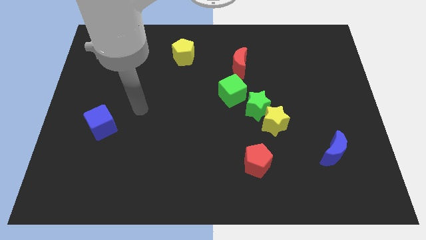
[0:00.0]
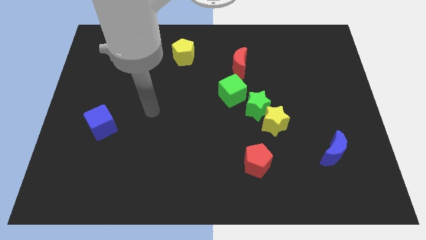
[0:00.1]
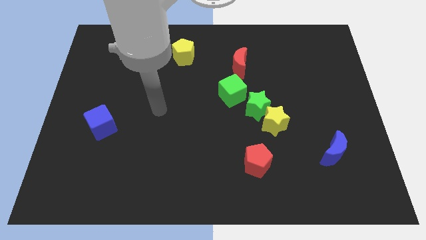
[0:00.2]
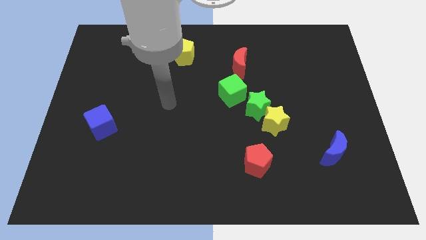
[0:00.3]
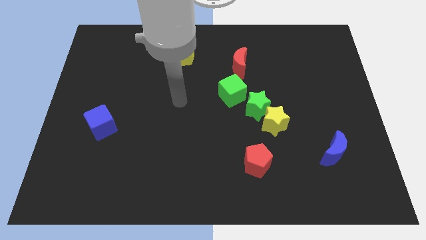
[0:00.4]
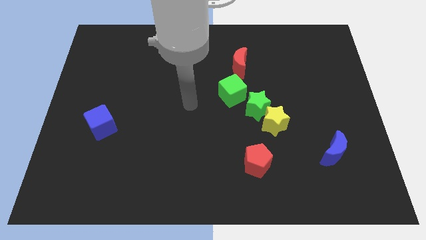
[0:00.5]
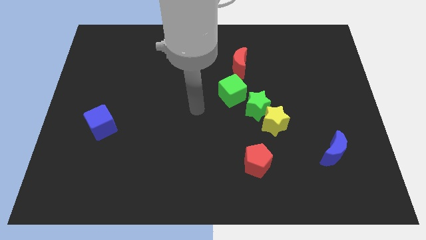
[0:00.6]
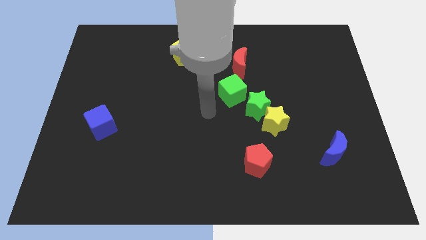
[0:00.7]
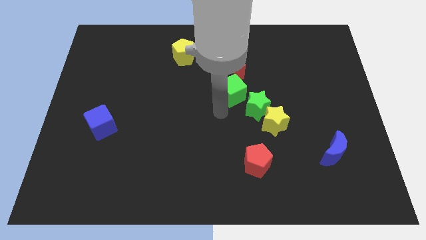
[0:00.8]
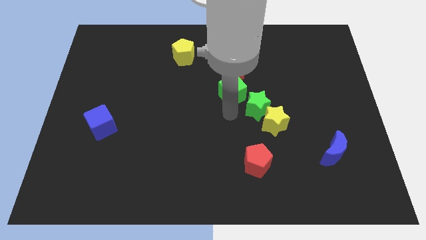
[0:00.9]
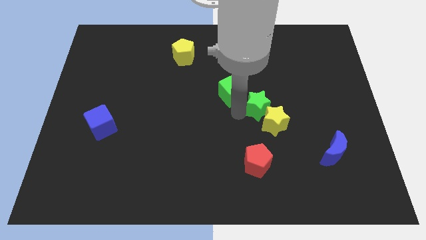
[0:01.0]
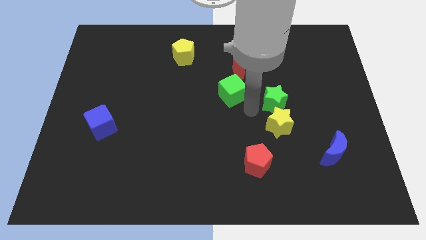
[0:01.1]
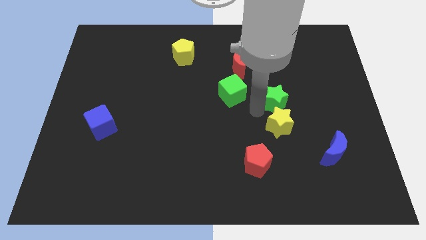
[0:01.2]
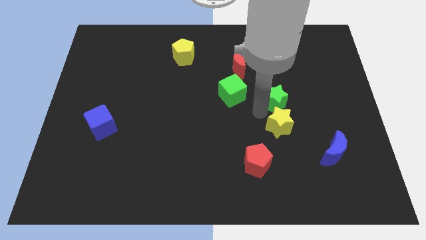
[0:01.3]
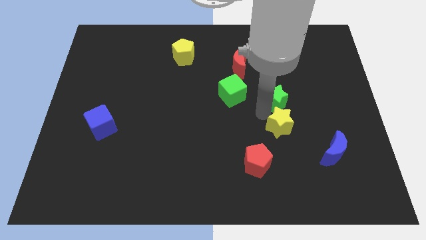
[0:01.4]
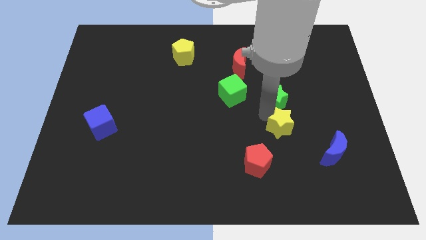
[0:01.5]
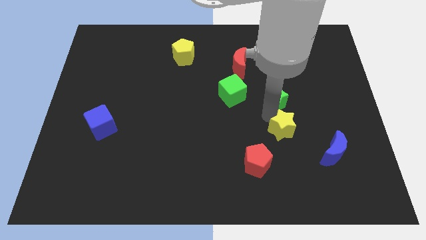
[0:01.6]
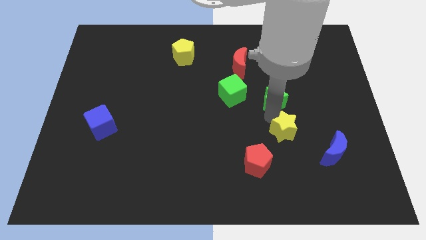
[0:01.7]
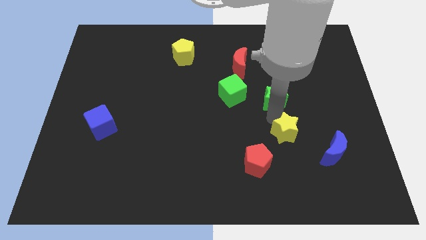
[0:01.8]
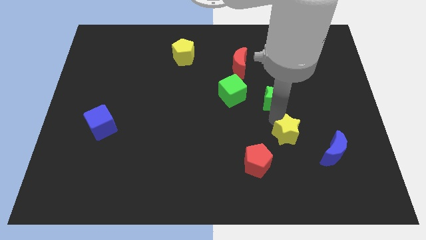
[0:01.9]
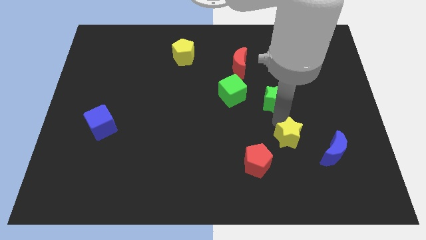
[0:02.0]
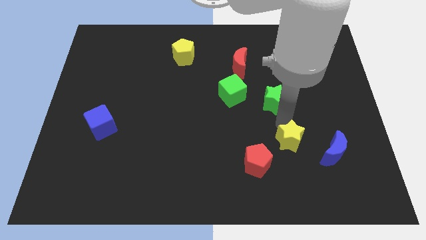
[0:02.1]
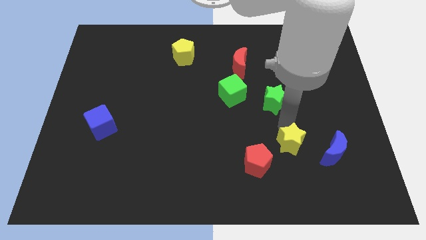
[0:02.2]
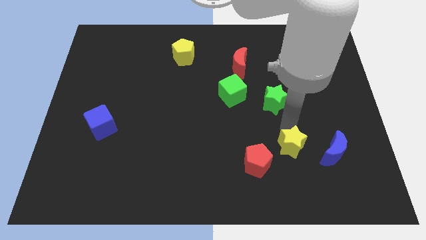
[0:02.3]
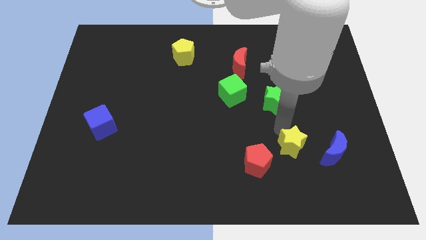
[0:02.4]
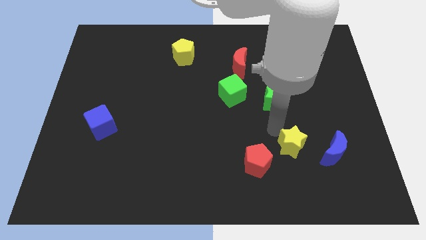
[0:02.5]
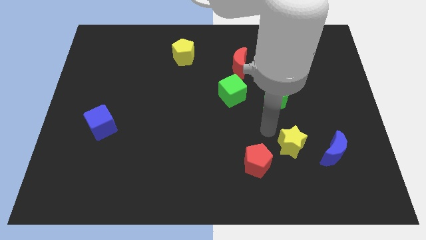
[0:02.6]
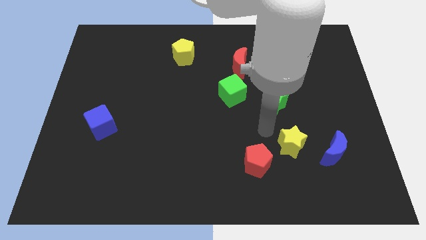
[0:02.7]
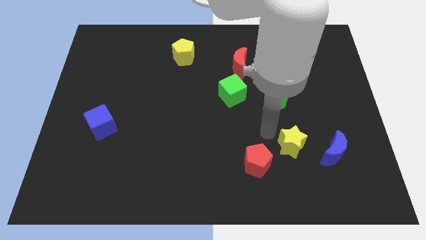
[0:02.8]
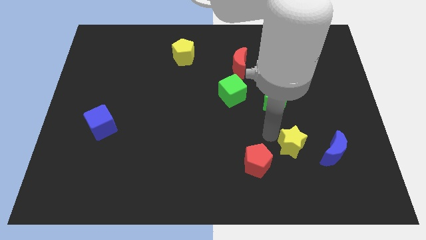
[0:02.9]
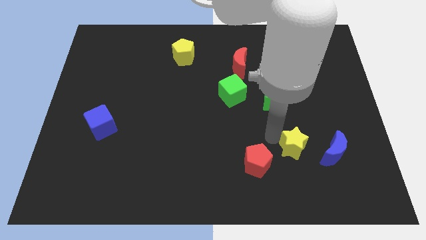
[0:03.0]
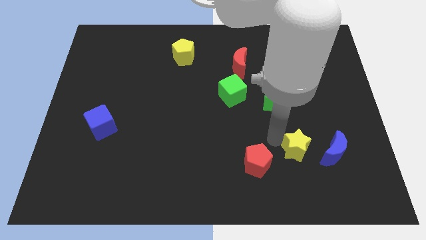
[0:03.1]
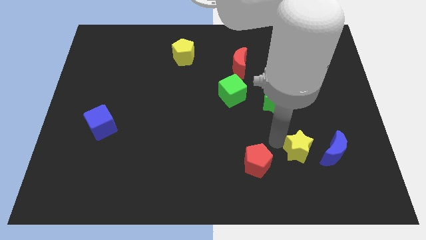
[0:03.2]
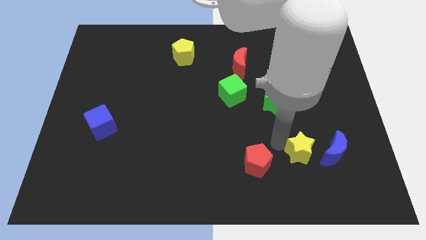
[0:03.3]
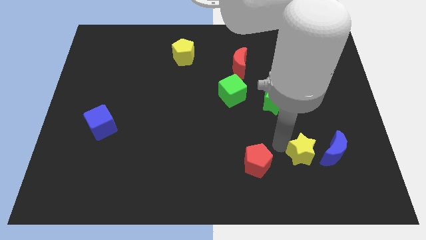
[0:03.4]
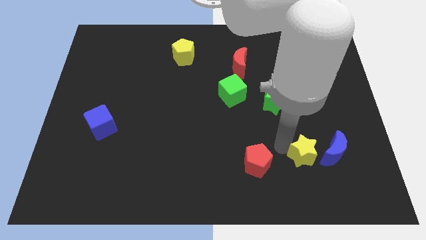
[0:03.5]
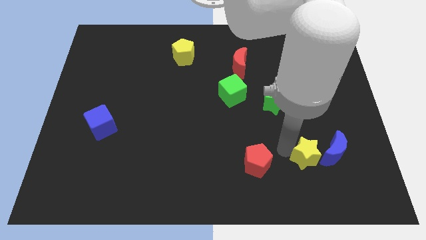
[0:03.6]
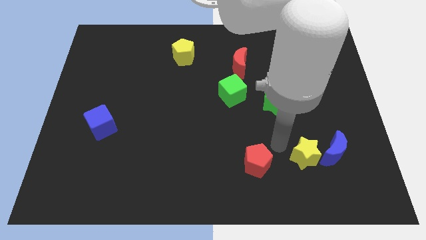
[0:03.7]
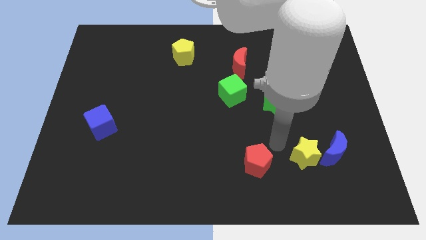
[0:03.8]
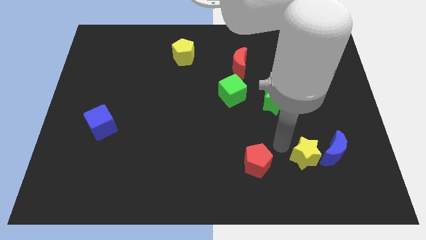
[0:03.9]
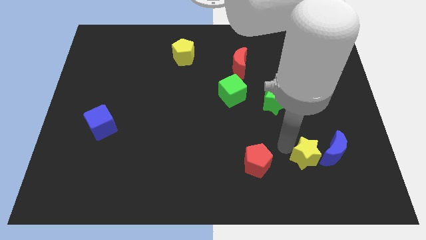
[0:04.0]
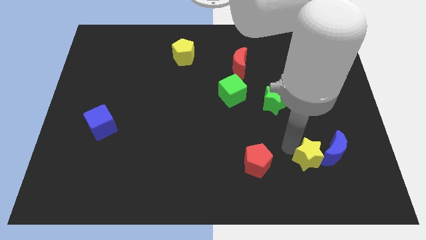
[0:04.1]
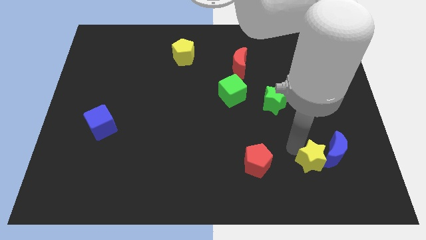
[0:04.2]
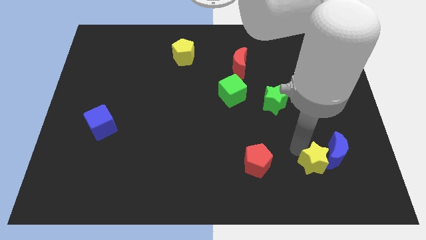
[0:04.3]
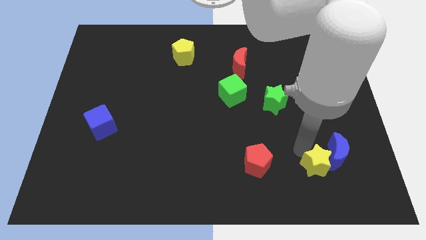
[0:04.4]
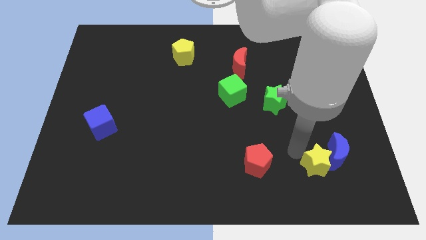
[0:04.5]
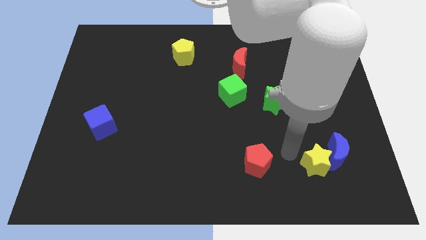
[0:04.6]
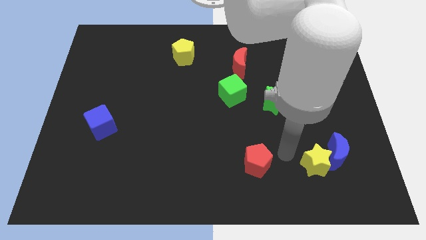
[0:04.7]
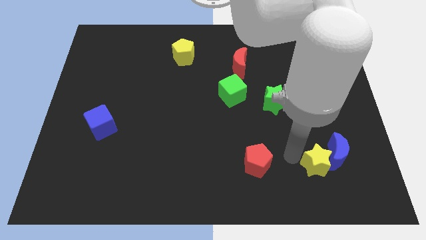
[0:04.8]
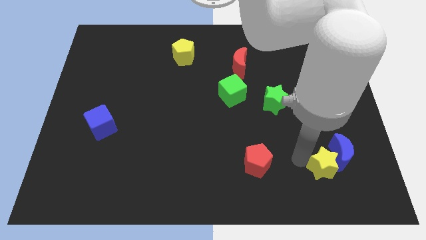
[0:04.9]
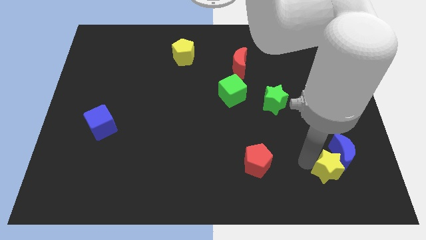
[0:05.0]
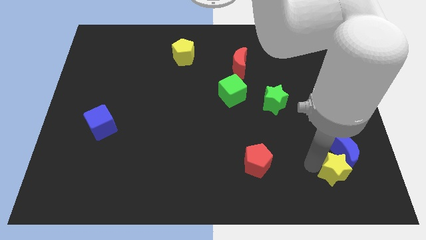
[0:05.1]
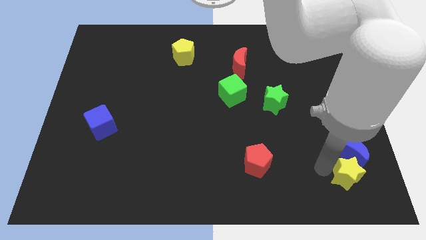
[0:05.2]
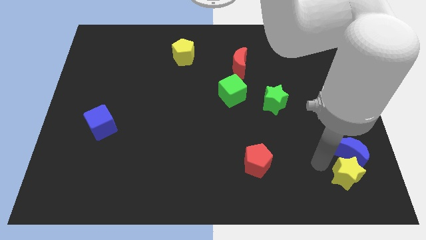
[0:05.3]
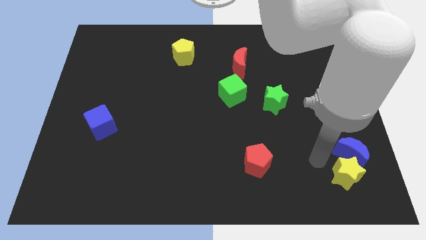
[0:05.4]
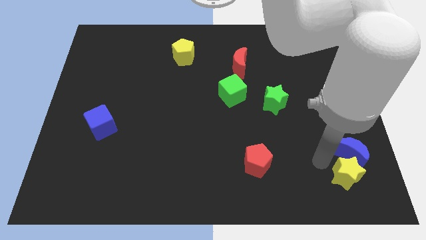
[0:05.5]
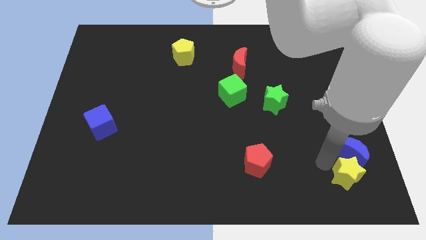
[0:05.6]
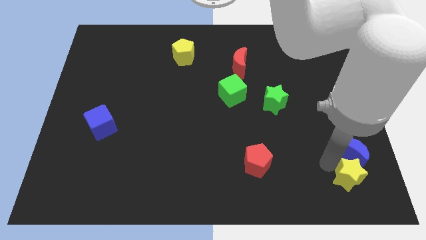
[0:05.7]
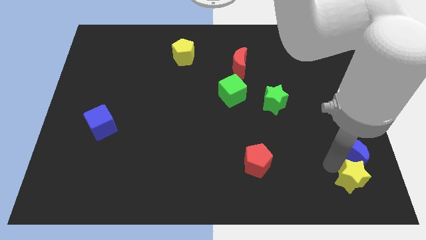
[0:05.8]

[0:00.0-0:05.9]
move the yellow star to the bottom right corner

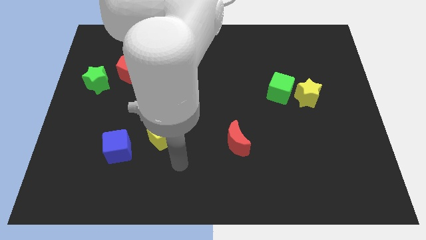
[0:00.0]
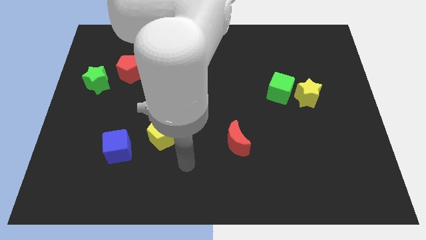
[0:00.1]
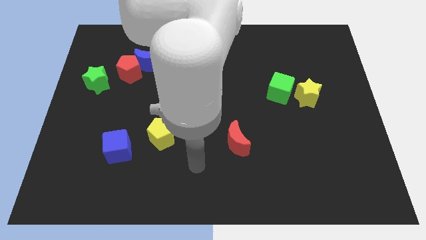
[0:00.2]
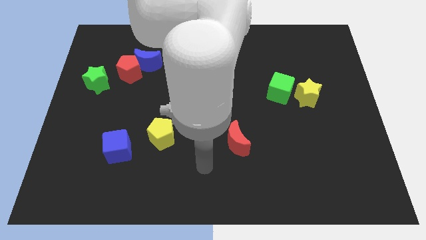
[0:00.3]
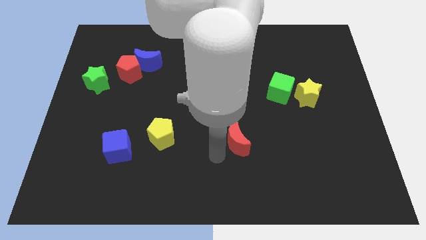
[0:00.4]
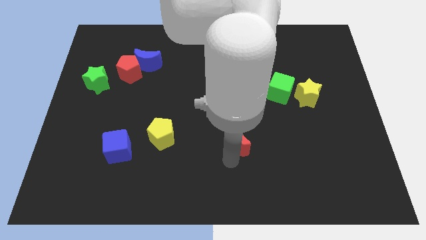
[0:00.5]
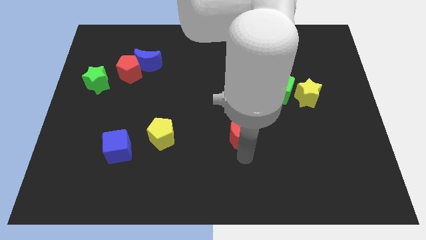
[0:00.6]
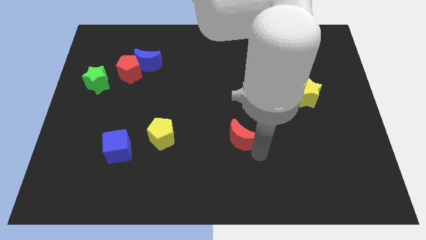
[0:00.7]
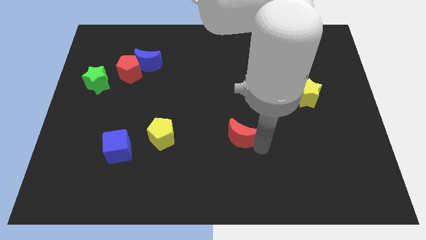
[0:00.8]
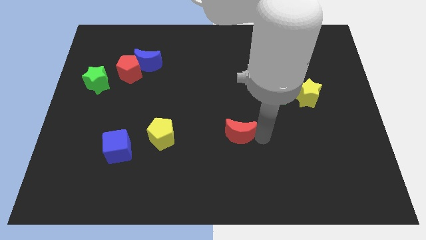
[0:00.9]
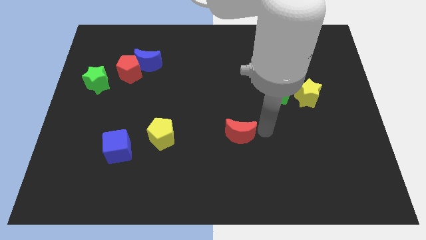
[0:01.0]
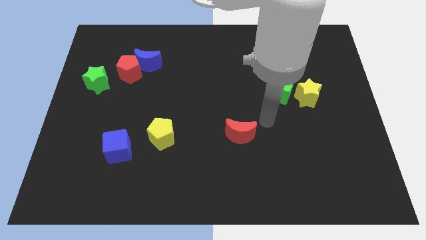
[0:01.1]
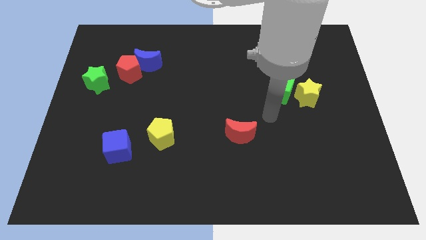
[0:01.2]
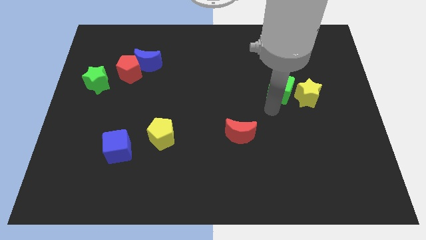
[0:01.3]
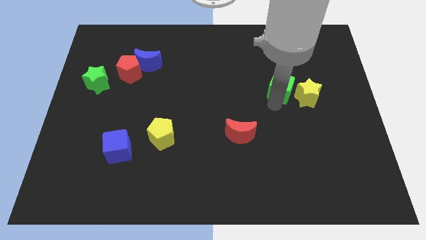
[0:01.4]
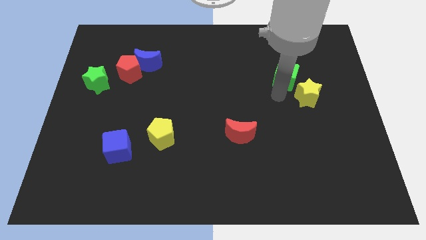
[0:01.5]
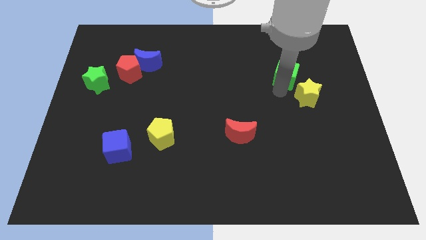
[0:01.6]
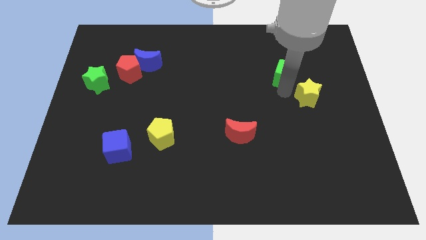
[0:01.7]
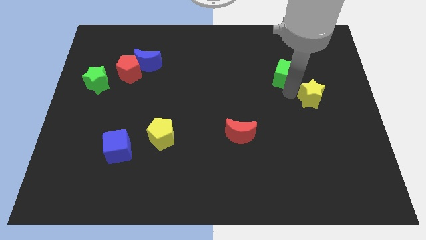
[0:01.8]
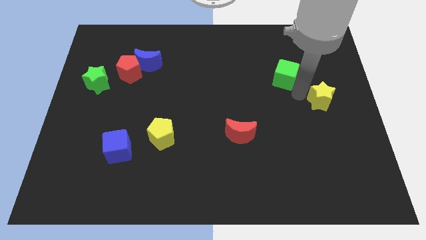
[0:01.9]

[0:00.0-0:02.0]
slide the yellow star to the right side of the board
